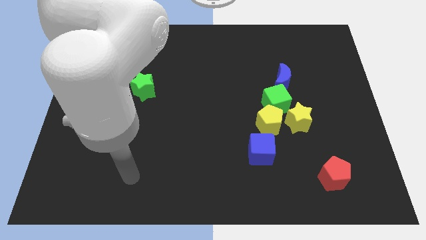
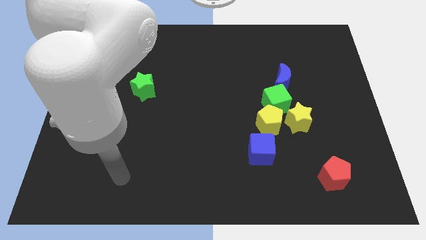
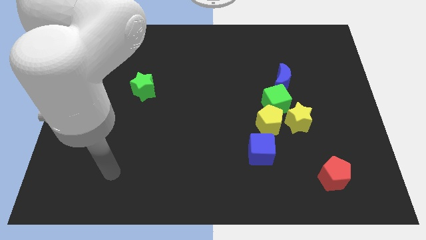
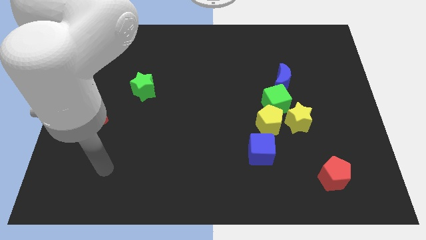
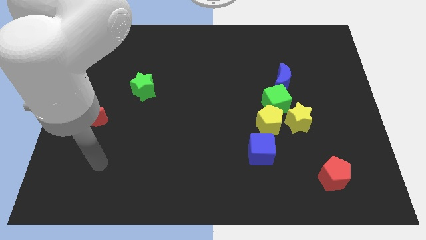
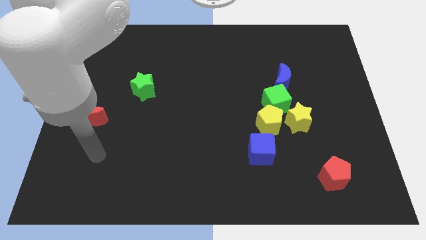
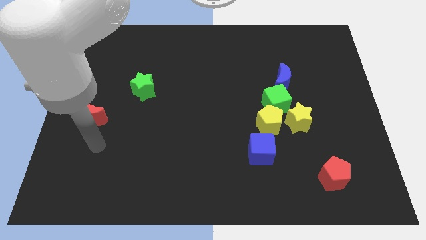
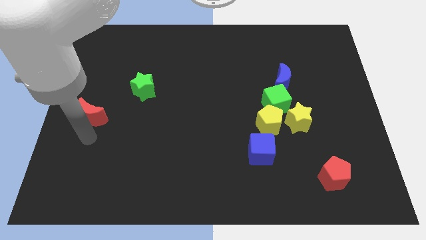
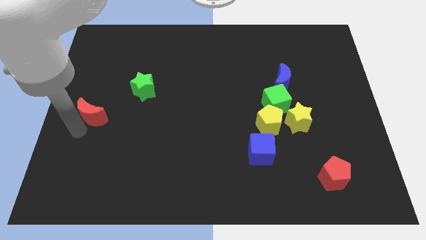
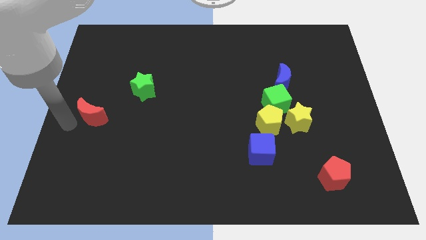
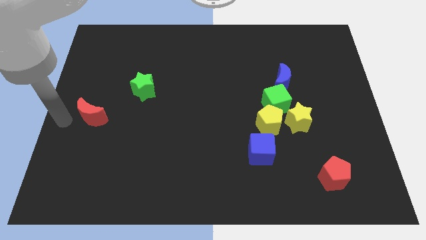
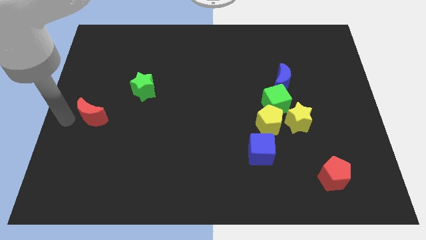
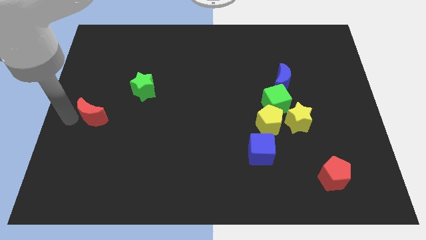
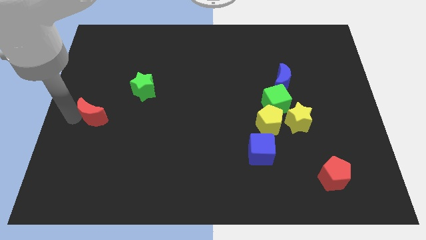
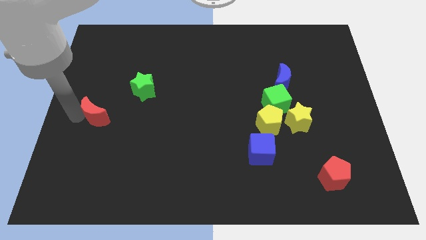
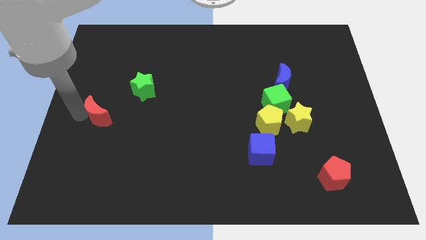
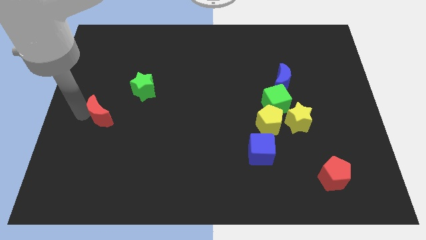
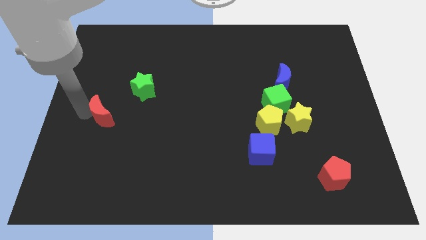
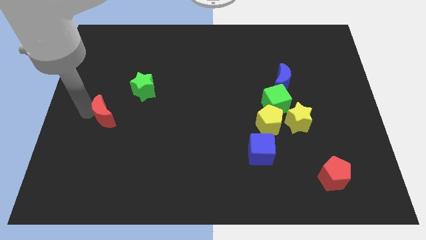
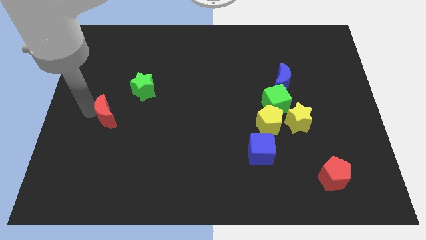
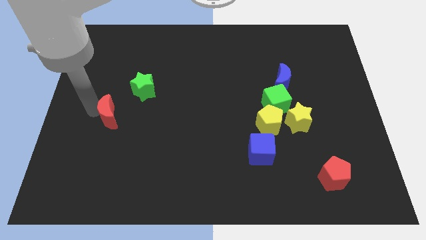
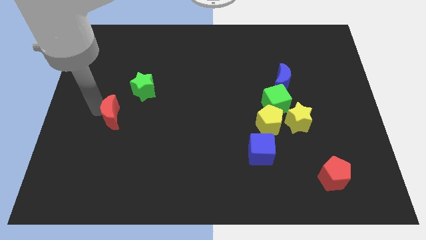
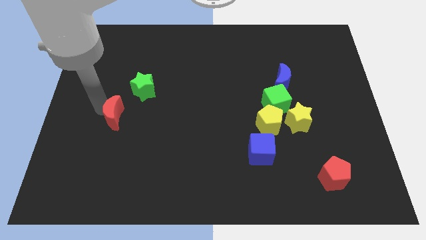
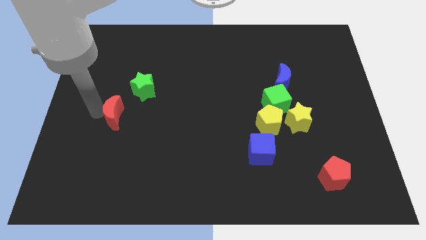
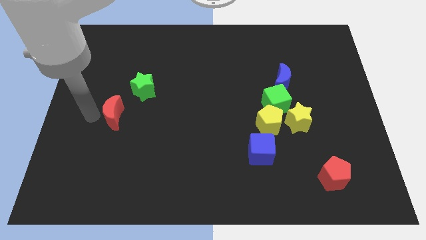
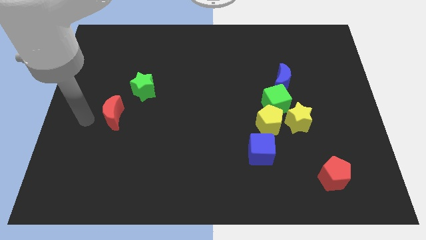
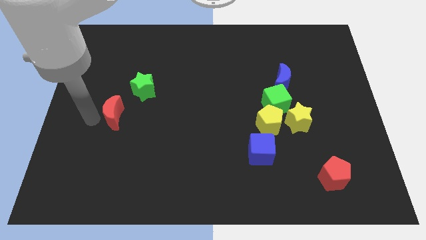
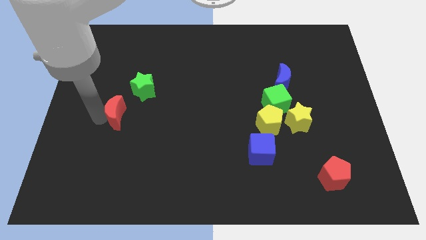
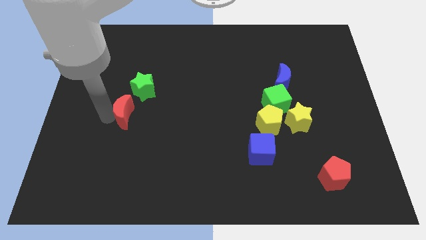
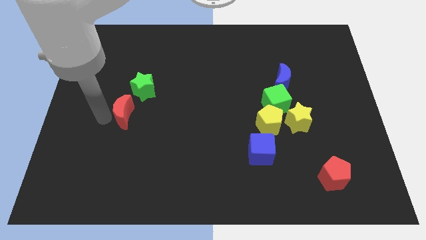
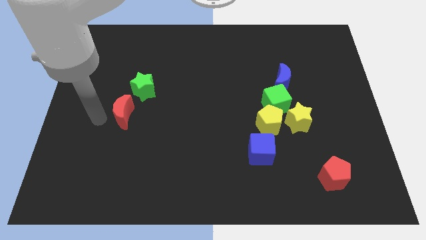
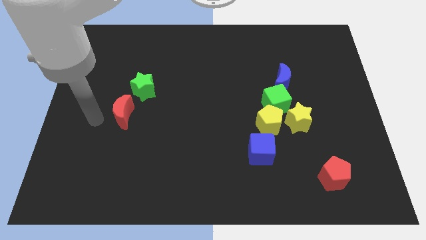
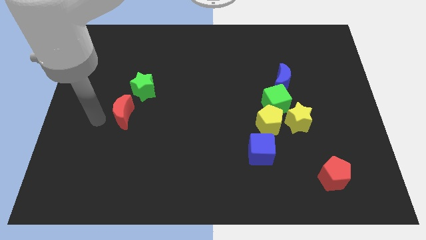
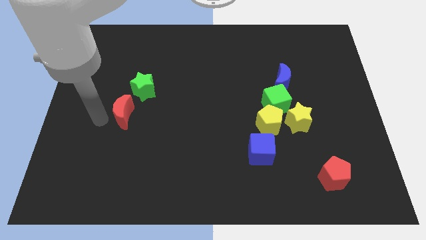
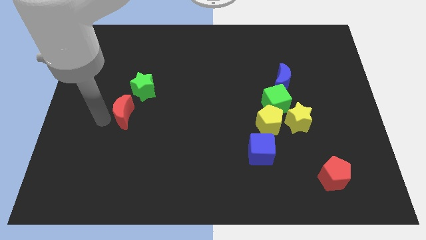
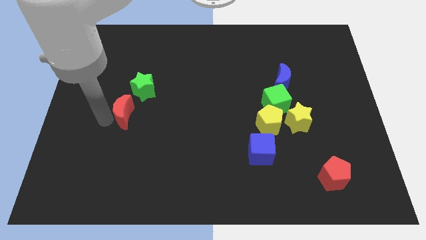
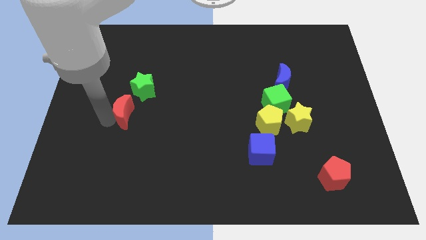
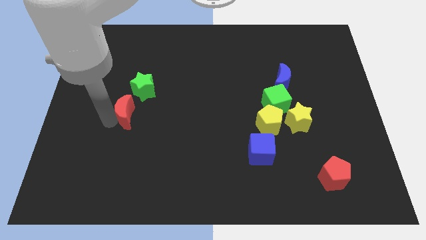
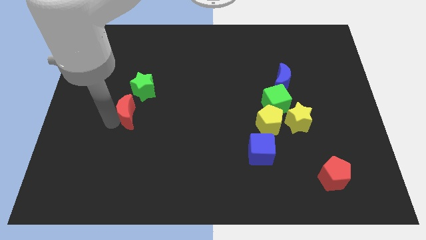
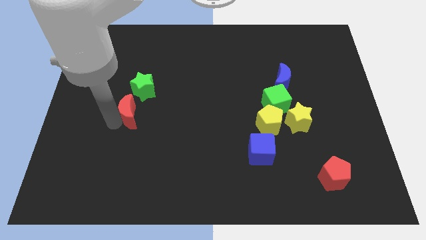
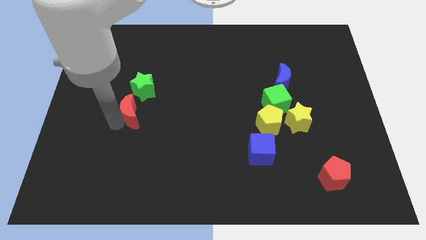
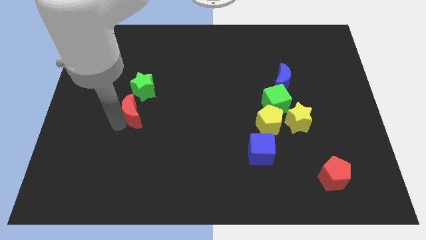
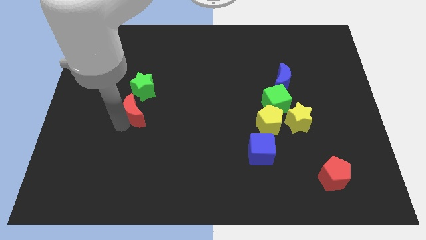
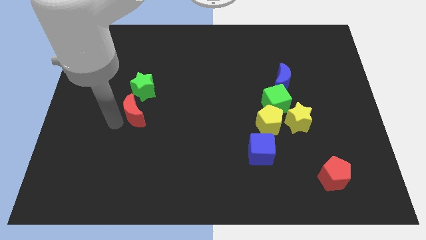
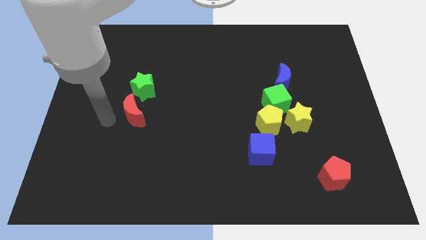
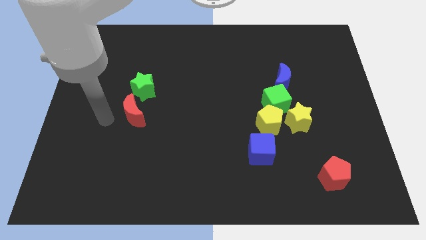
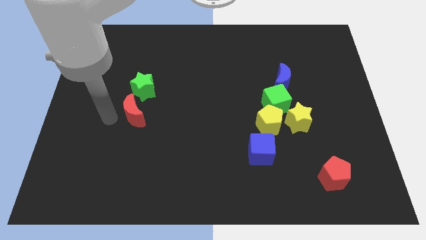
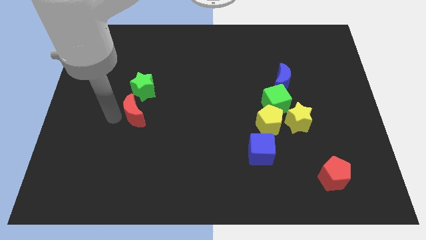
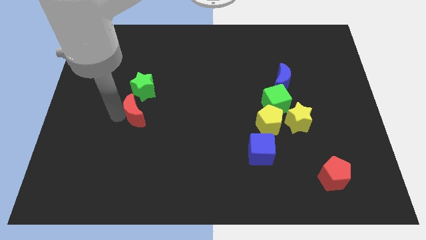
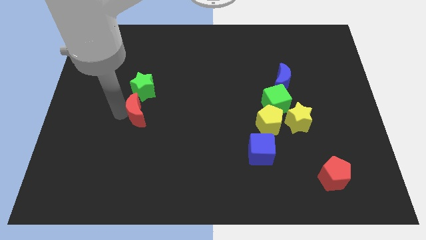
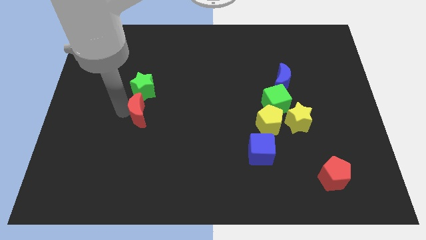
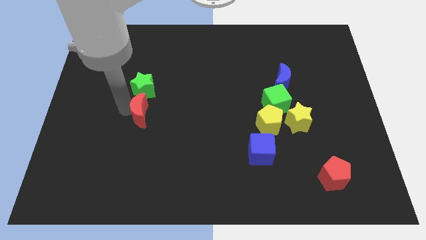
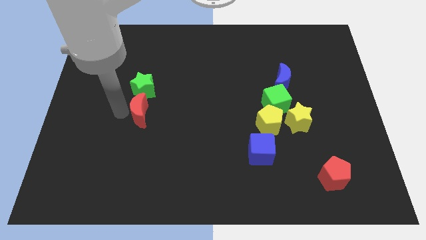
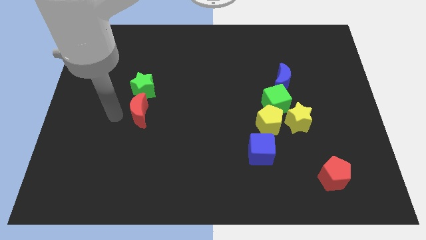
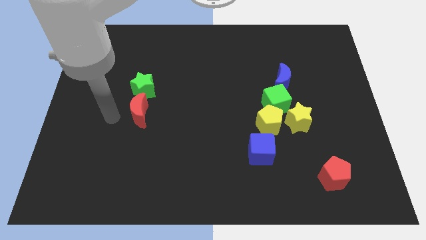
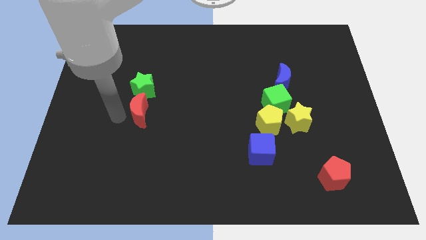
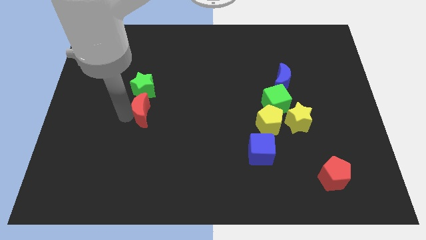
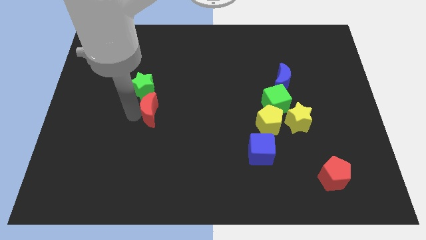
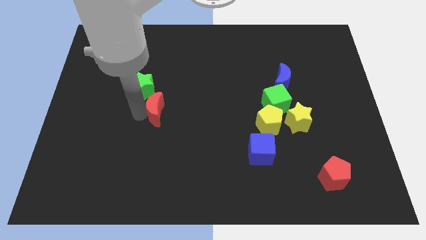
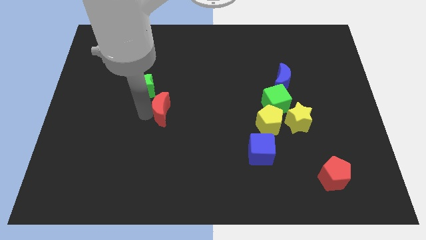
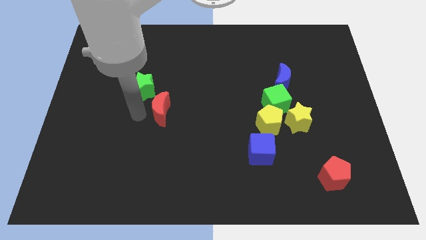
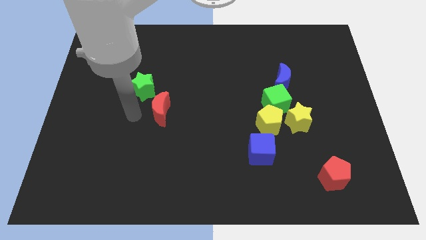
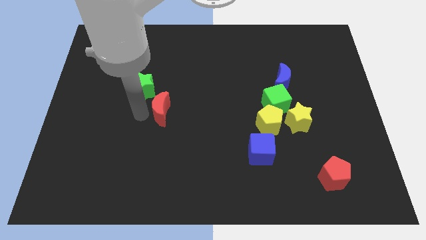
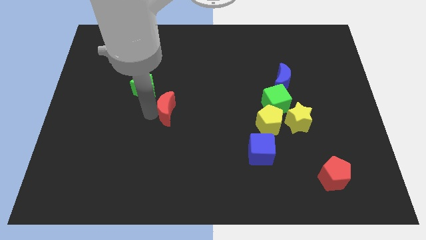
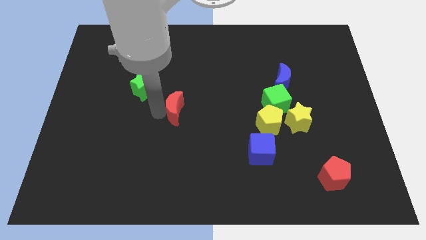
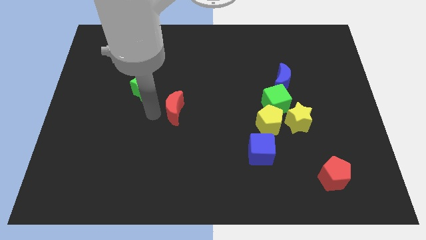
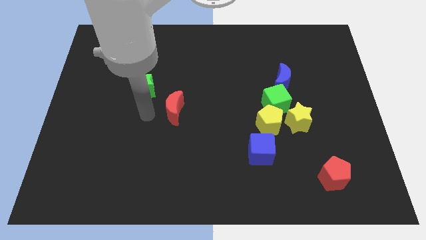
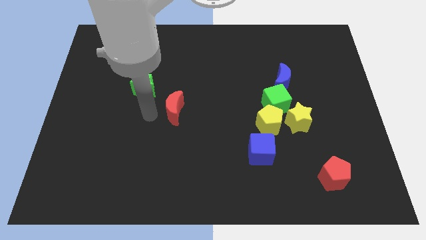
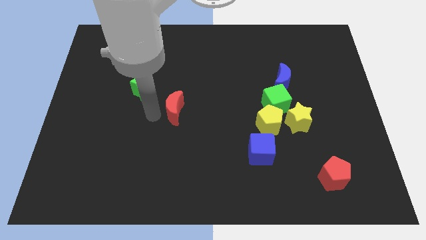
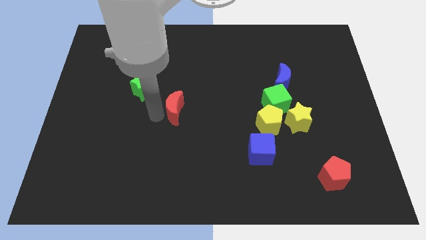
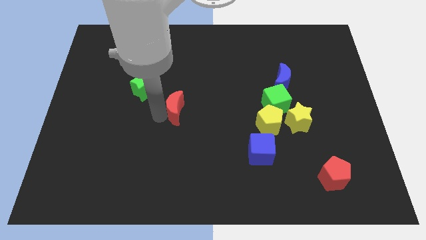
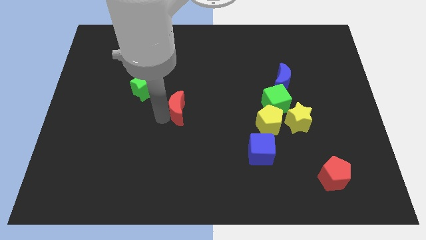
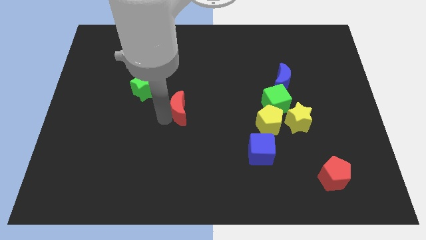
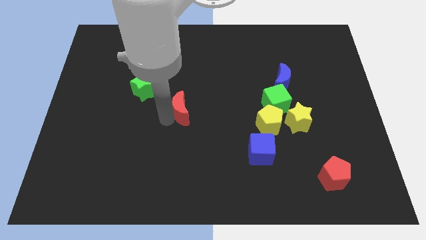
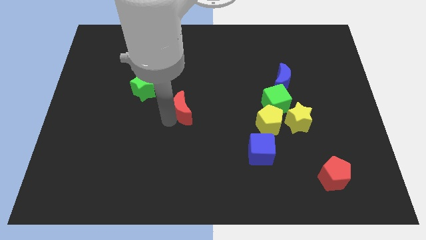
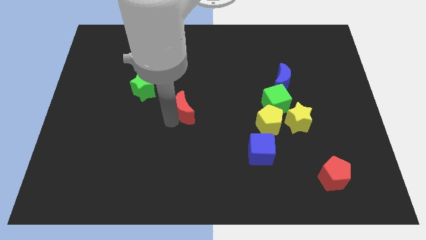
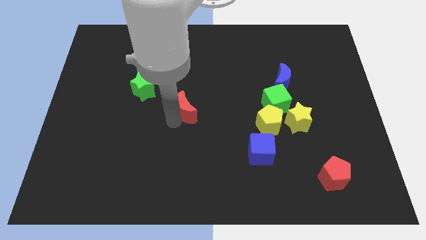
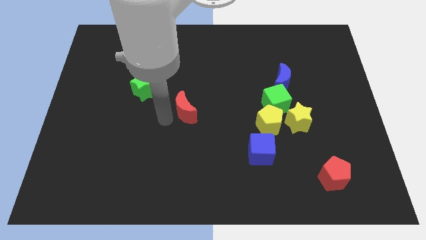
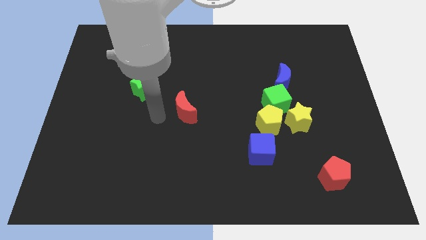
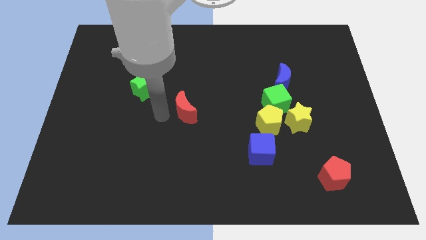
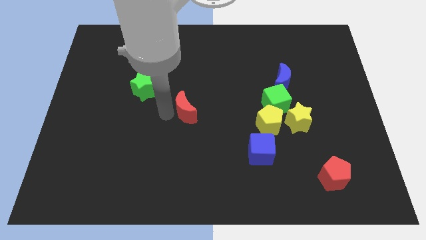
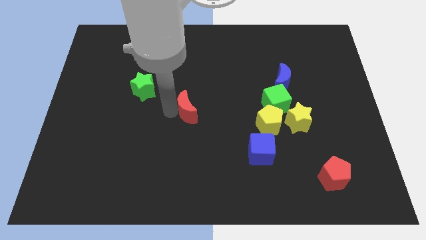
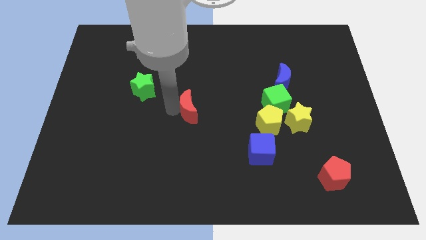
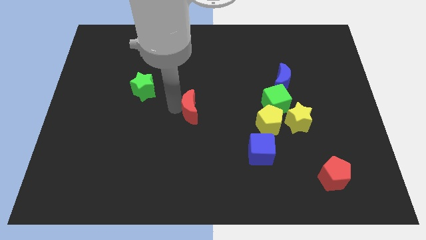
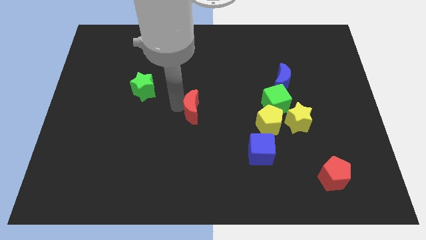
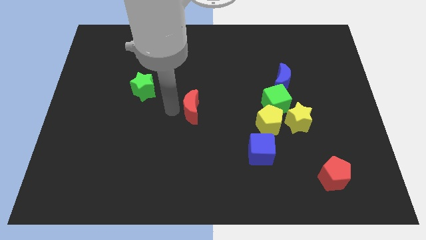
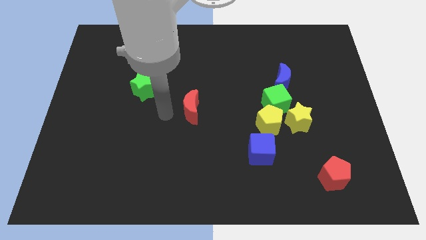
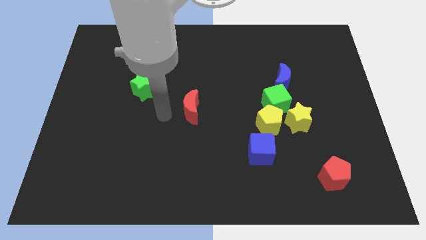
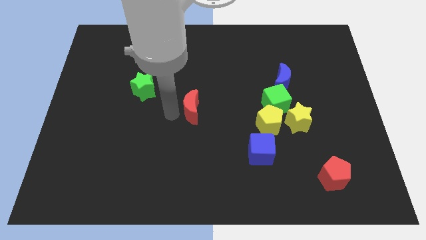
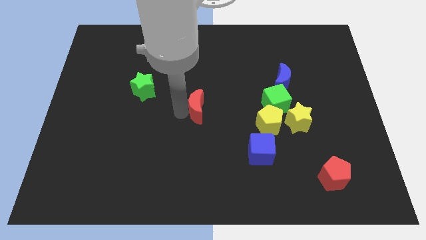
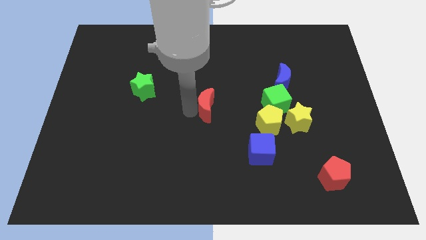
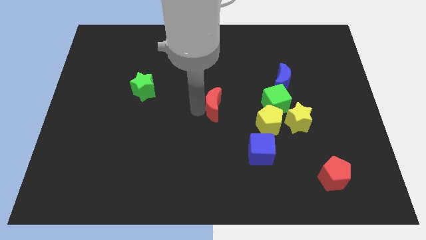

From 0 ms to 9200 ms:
push the red moon to the left side of the green cube
